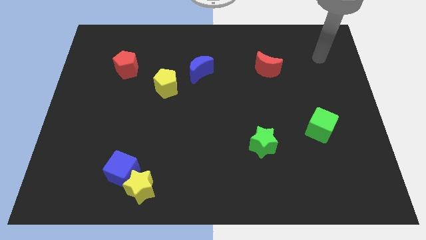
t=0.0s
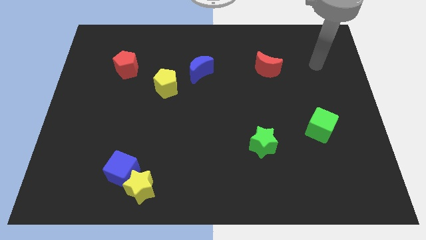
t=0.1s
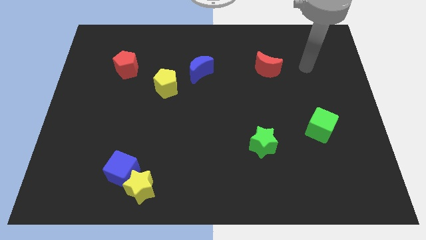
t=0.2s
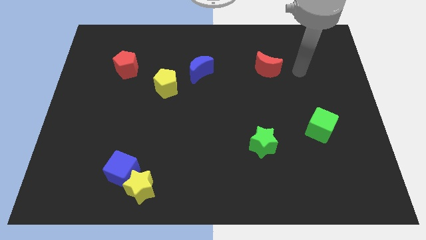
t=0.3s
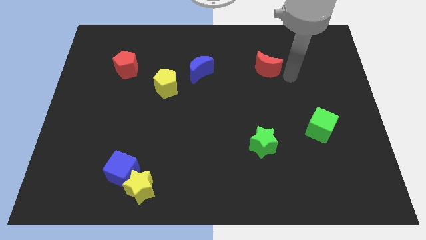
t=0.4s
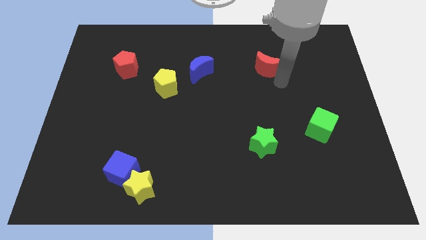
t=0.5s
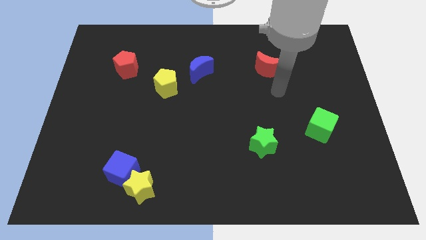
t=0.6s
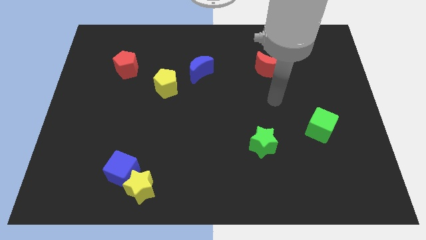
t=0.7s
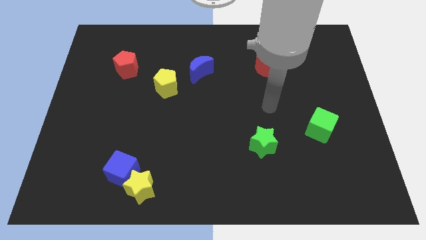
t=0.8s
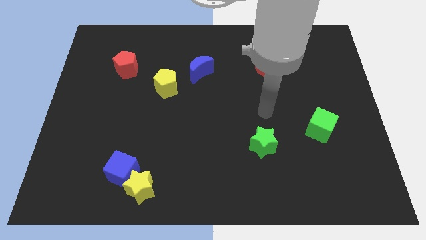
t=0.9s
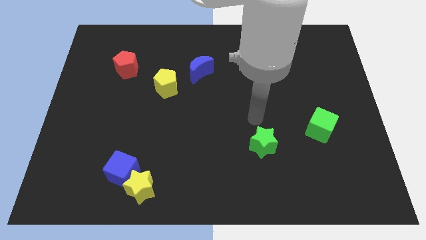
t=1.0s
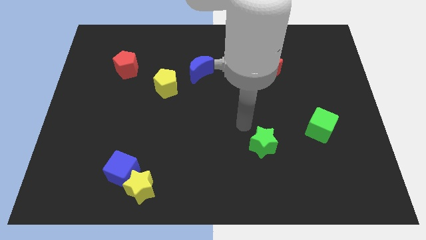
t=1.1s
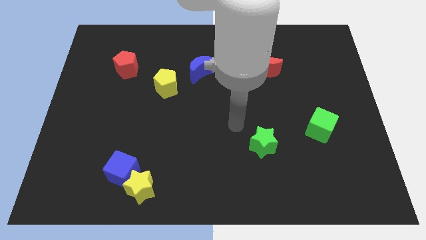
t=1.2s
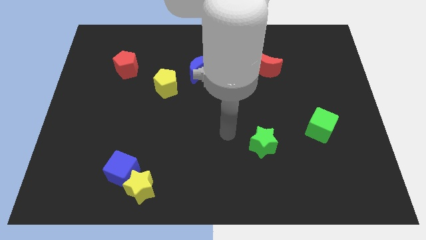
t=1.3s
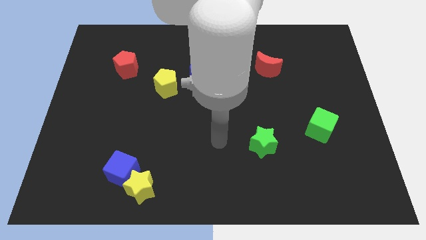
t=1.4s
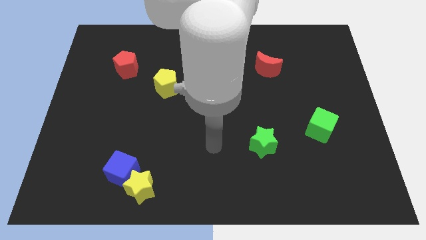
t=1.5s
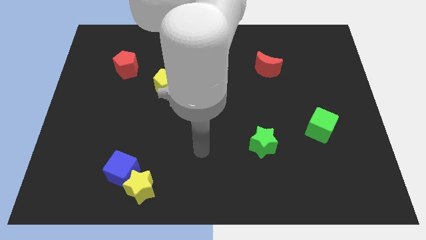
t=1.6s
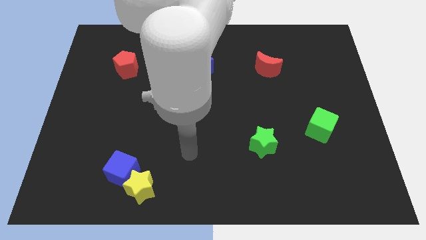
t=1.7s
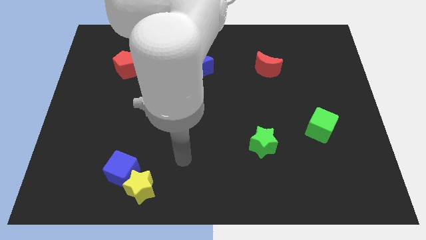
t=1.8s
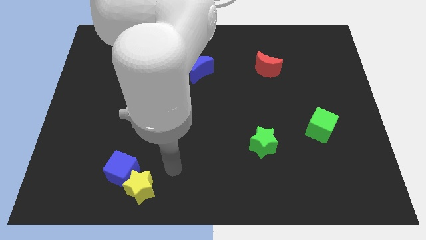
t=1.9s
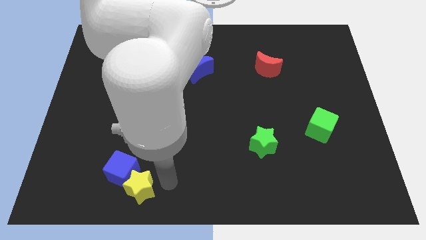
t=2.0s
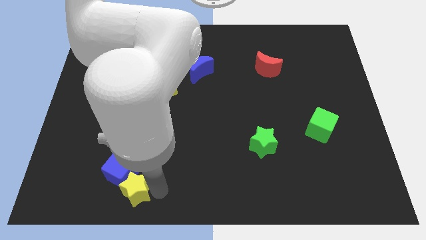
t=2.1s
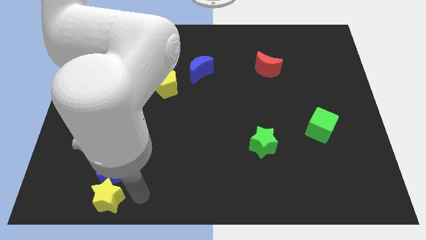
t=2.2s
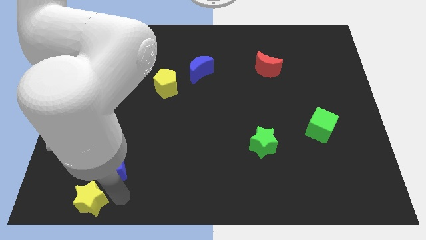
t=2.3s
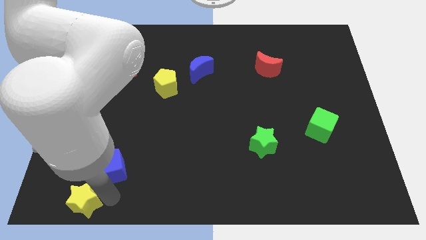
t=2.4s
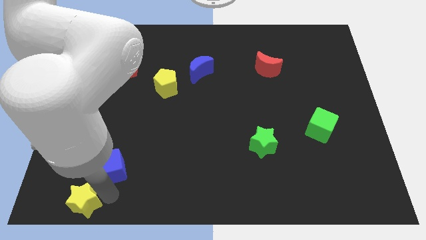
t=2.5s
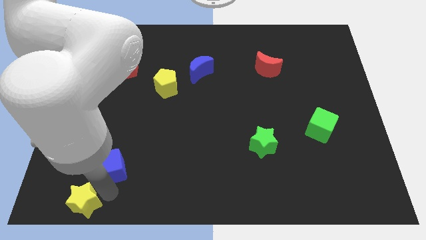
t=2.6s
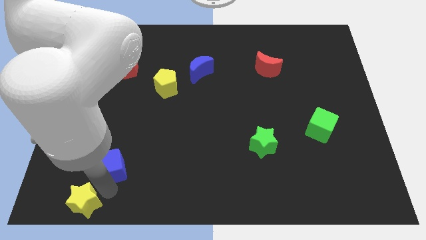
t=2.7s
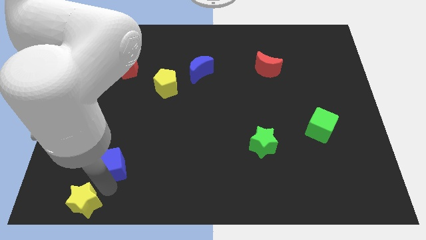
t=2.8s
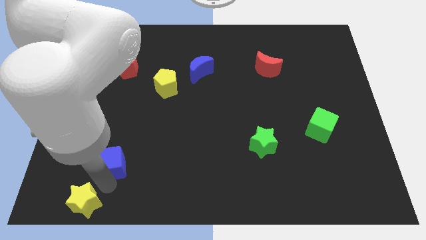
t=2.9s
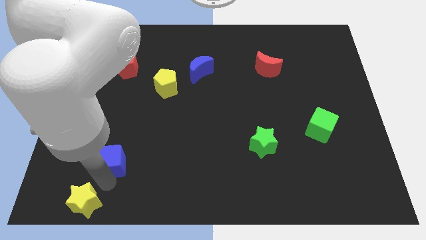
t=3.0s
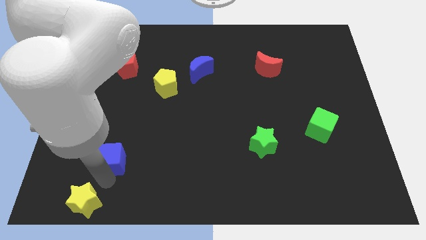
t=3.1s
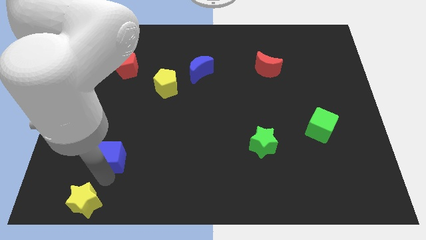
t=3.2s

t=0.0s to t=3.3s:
pull the blue cube apart from the yellow star

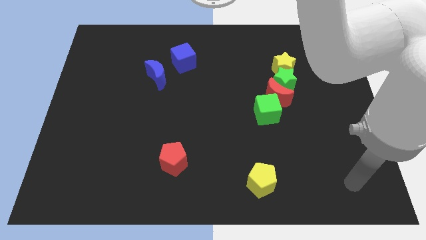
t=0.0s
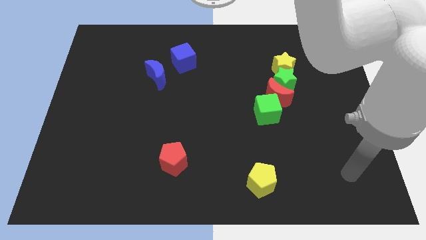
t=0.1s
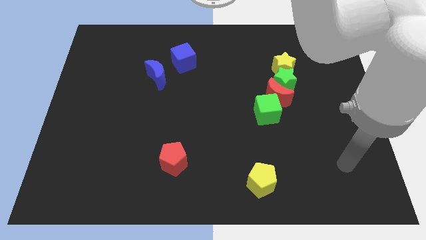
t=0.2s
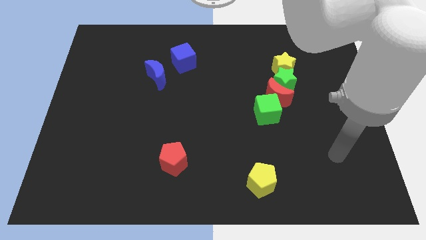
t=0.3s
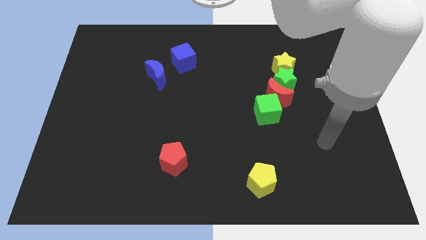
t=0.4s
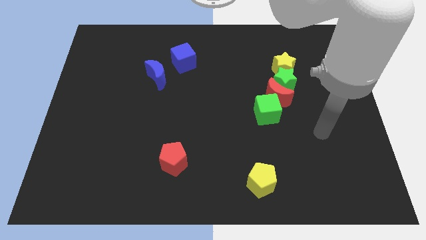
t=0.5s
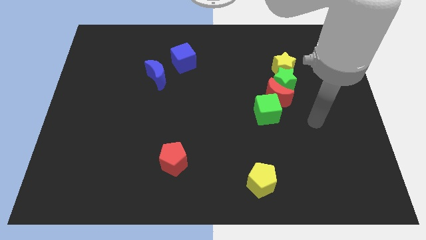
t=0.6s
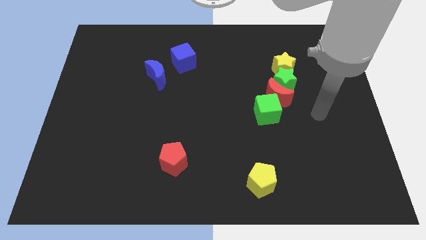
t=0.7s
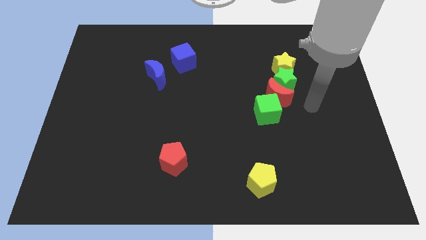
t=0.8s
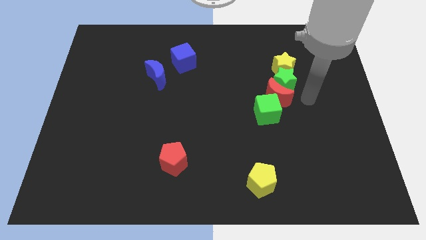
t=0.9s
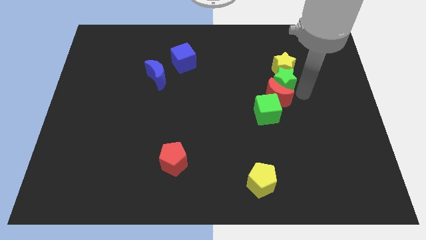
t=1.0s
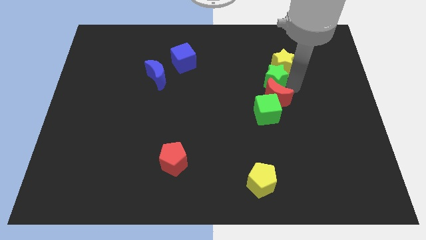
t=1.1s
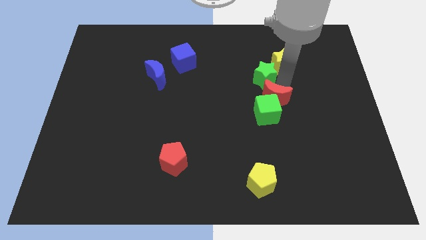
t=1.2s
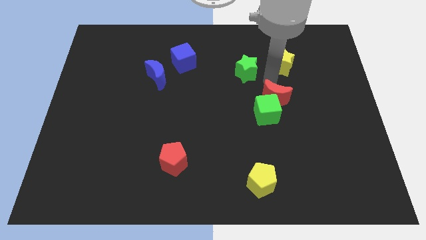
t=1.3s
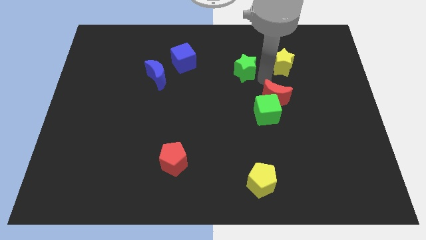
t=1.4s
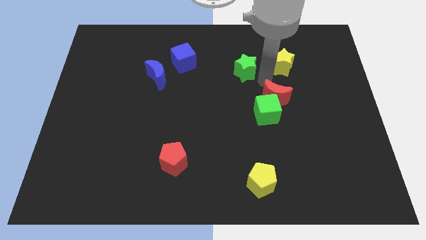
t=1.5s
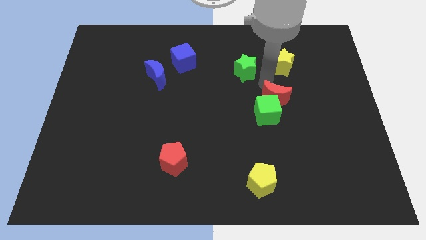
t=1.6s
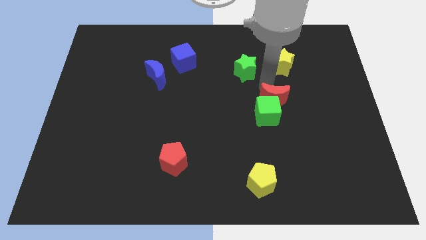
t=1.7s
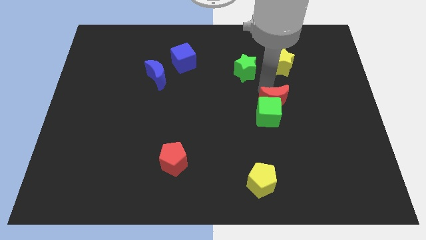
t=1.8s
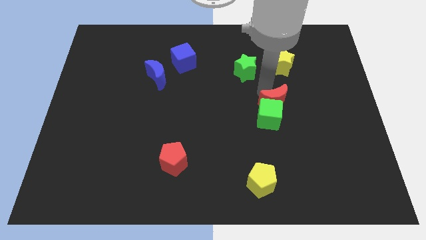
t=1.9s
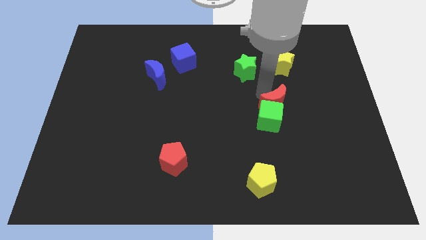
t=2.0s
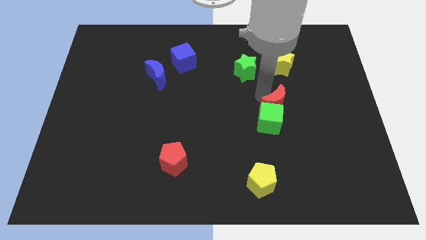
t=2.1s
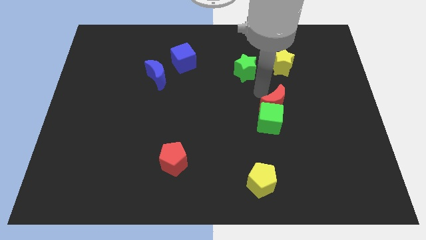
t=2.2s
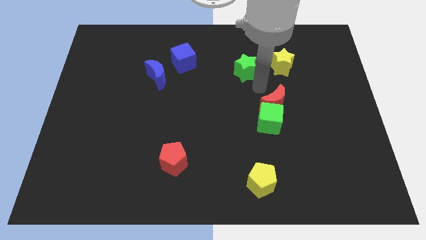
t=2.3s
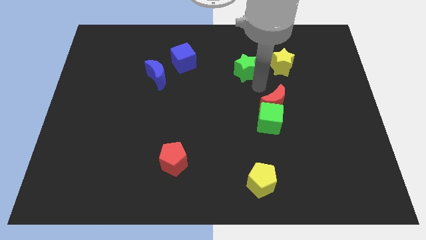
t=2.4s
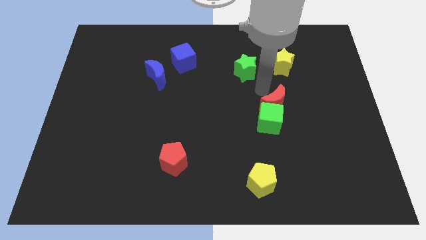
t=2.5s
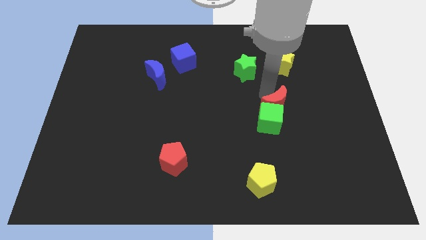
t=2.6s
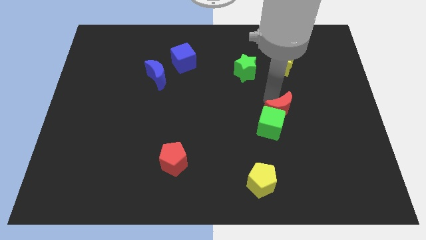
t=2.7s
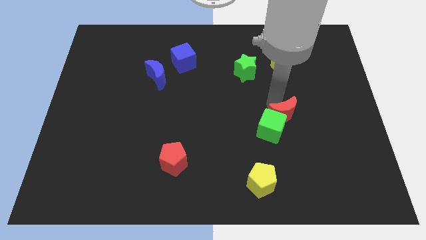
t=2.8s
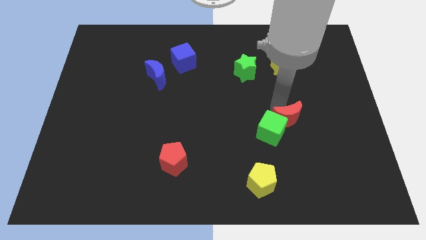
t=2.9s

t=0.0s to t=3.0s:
move the red moon away from the group

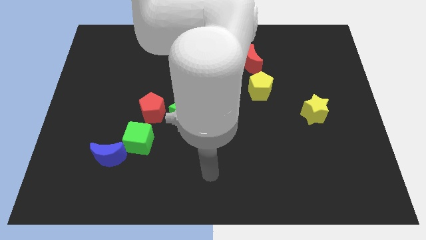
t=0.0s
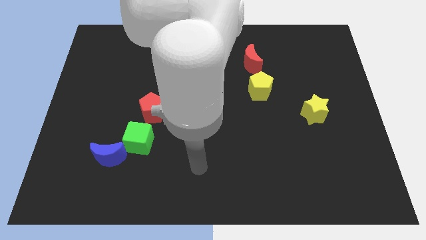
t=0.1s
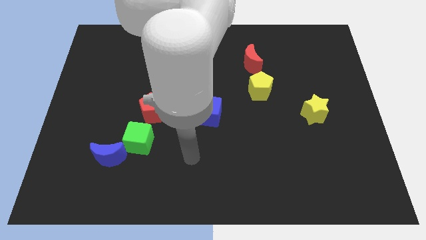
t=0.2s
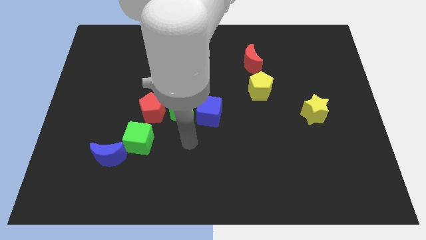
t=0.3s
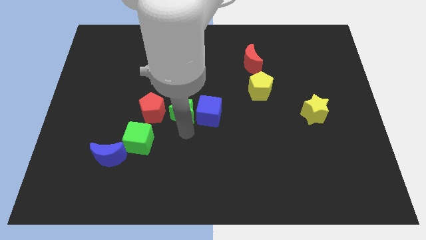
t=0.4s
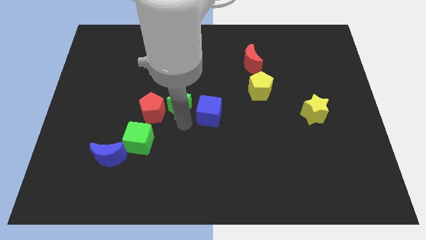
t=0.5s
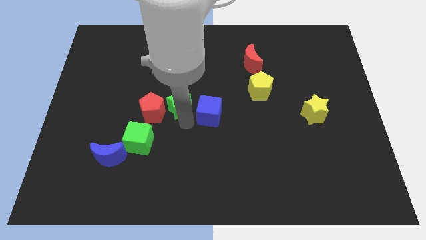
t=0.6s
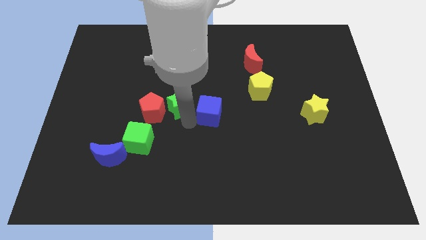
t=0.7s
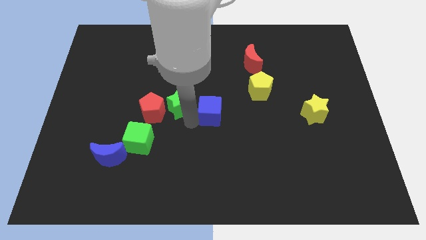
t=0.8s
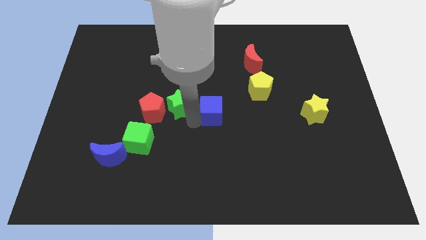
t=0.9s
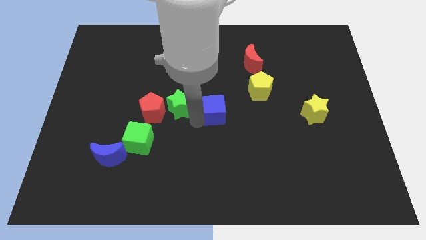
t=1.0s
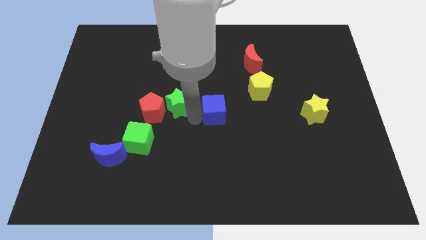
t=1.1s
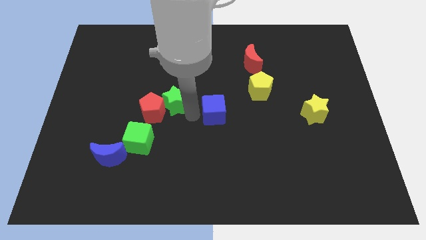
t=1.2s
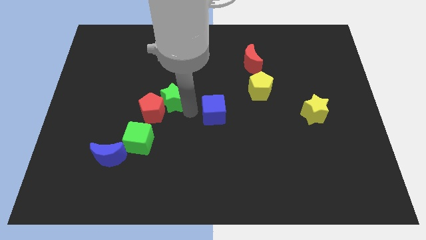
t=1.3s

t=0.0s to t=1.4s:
pull the blue cube apart from the green star

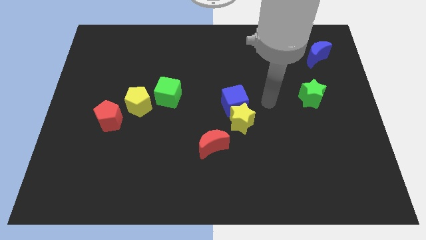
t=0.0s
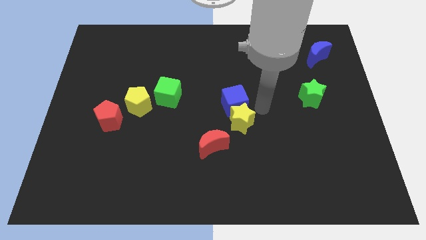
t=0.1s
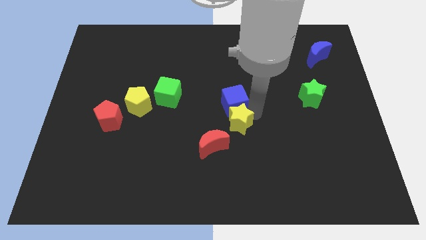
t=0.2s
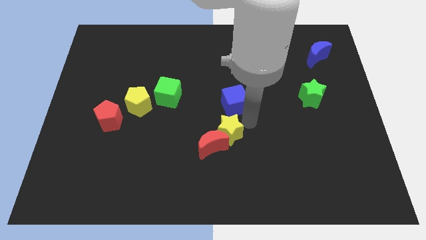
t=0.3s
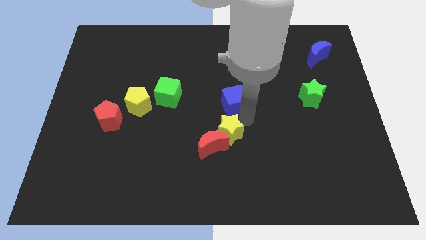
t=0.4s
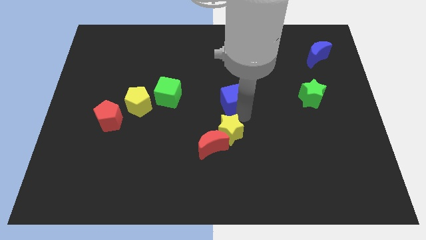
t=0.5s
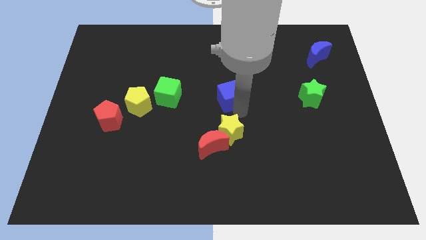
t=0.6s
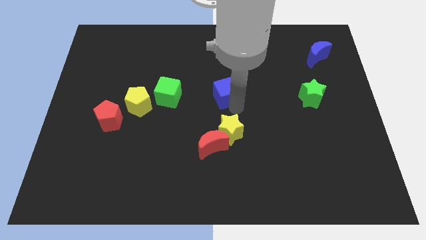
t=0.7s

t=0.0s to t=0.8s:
separate the blue cube from the yellow star

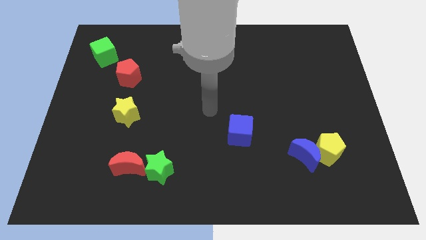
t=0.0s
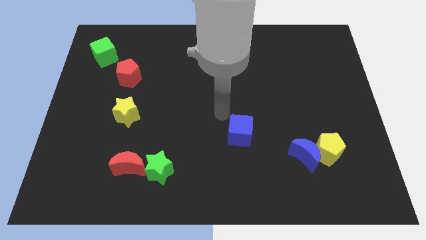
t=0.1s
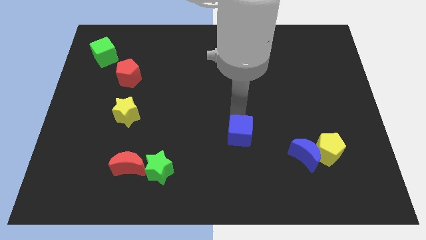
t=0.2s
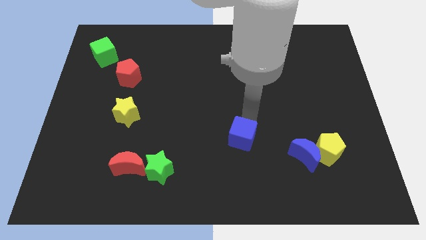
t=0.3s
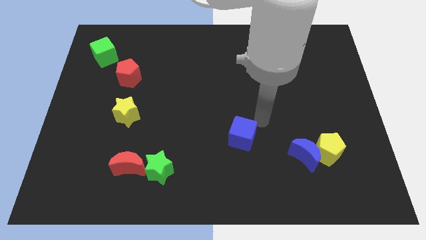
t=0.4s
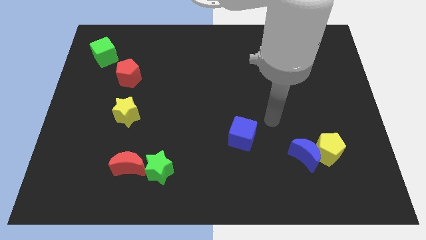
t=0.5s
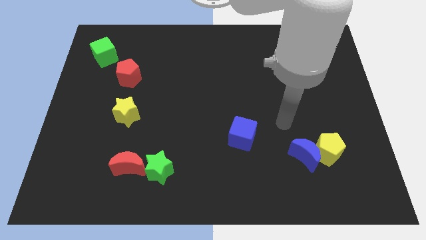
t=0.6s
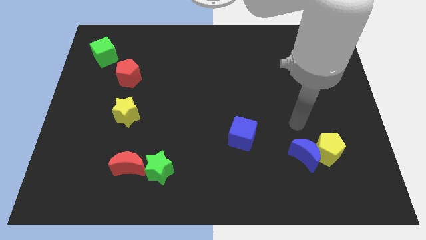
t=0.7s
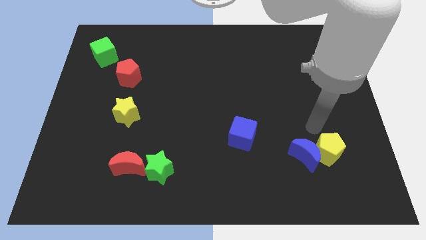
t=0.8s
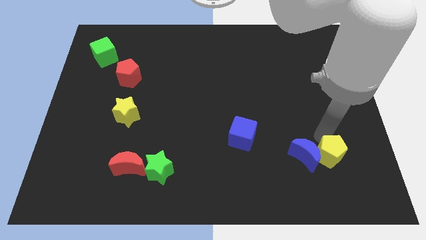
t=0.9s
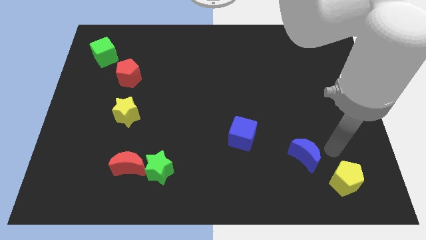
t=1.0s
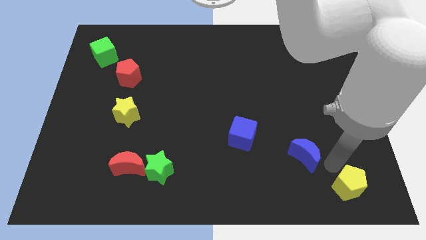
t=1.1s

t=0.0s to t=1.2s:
pull the blue moon apart from the yellow pentagon
